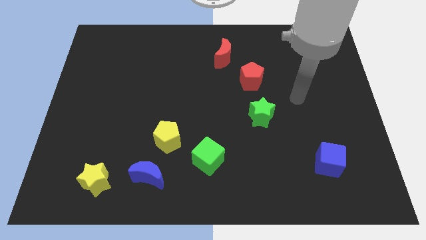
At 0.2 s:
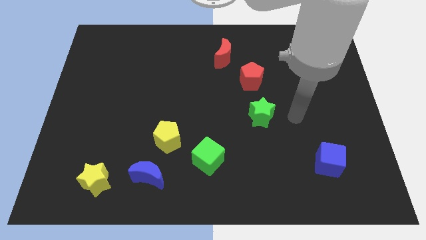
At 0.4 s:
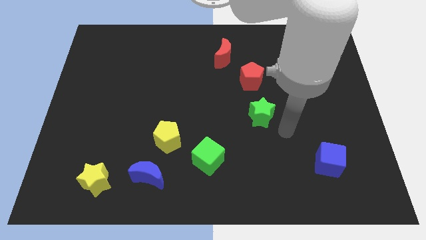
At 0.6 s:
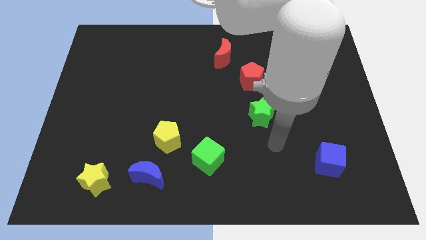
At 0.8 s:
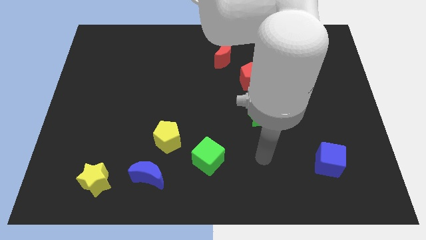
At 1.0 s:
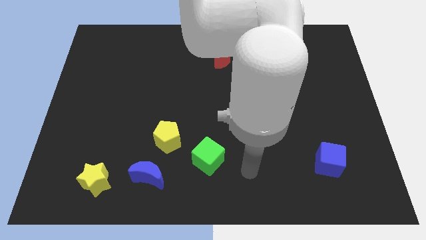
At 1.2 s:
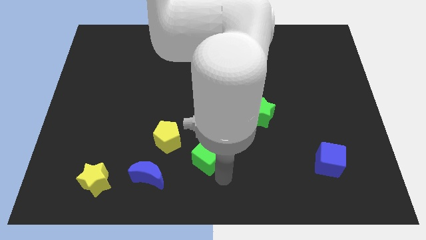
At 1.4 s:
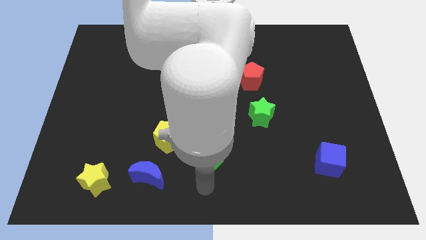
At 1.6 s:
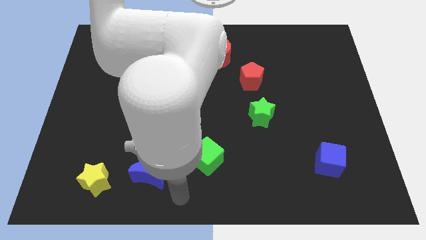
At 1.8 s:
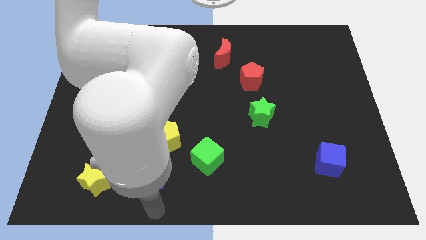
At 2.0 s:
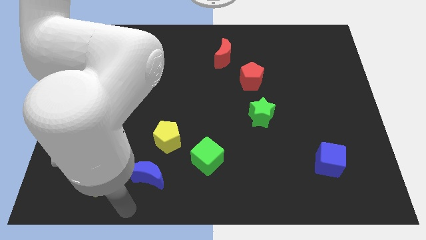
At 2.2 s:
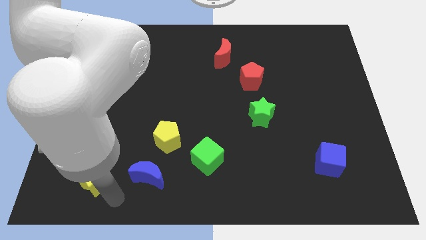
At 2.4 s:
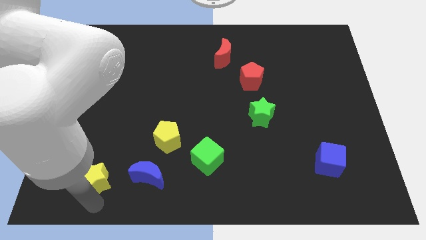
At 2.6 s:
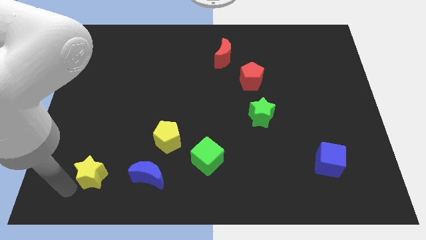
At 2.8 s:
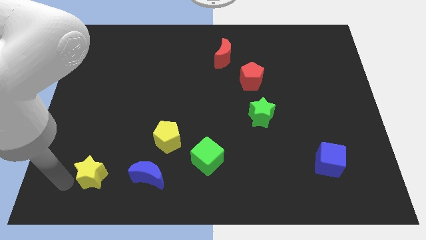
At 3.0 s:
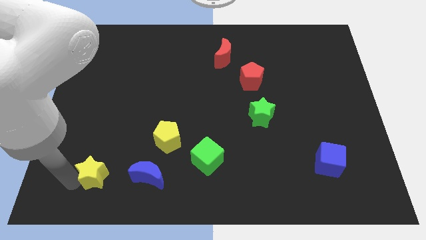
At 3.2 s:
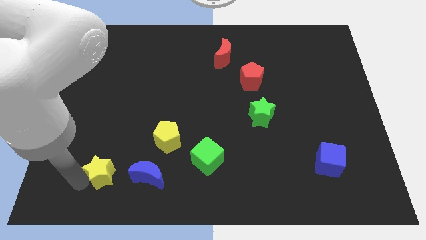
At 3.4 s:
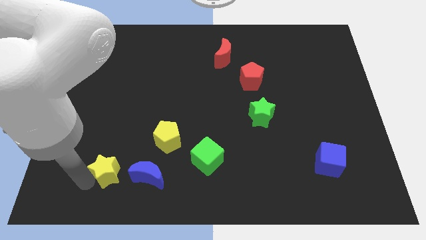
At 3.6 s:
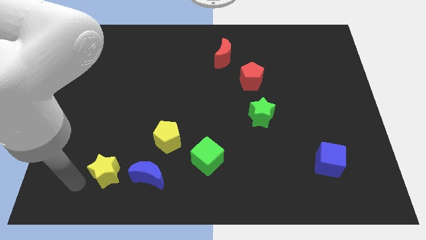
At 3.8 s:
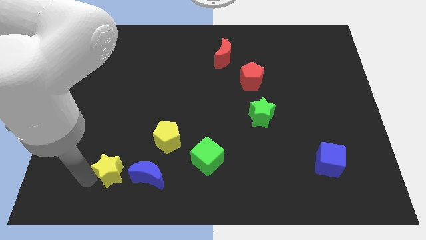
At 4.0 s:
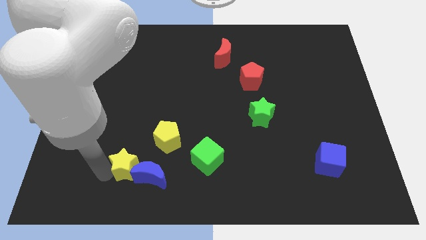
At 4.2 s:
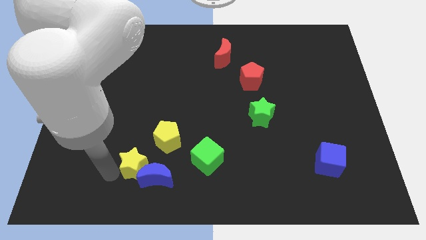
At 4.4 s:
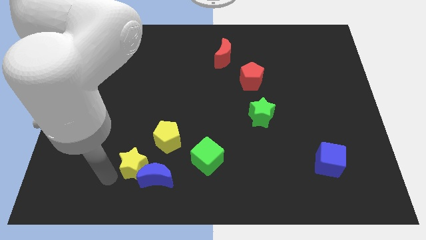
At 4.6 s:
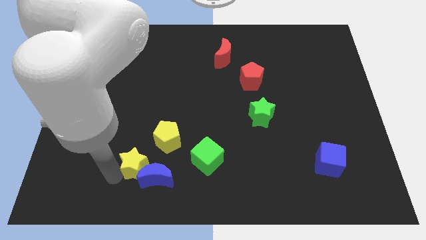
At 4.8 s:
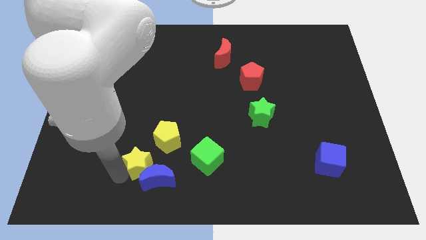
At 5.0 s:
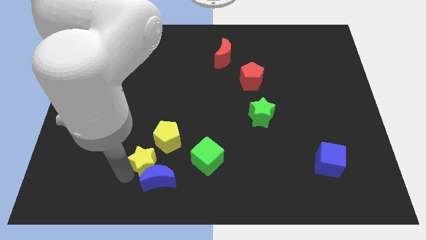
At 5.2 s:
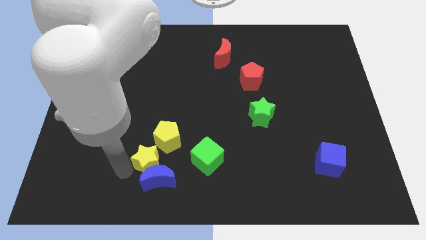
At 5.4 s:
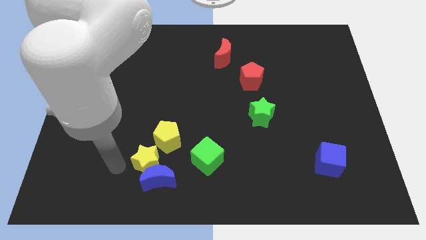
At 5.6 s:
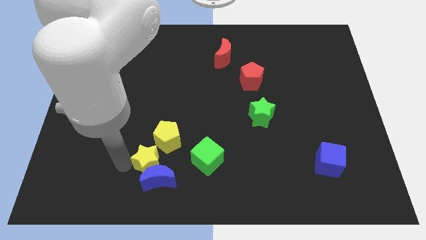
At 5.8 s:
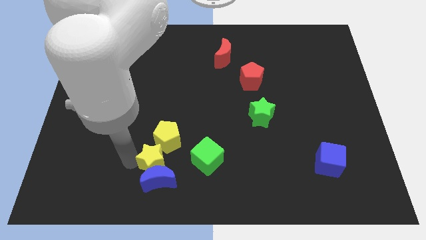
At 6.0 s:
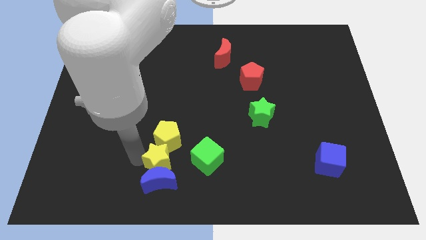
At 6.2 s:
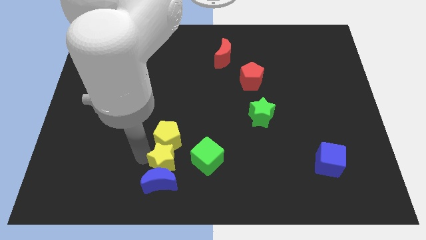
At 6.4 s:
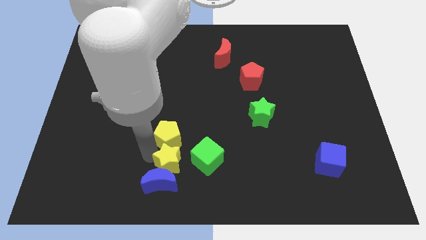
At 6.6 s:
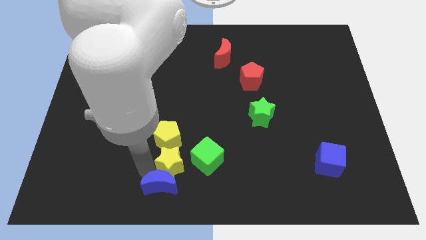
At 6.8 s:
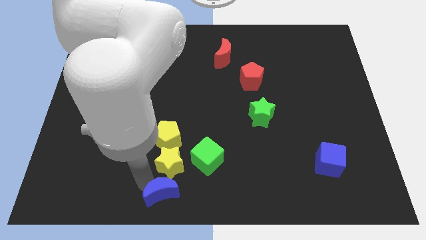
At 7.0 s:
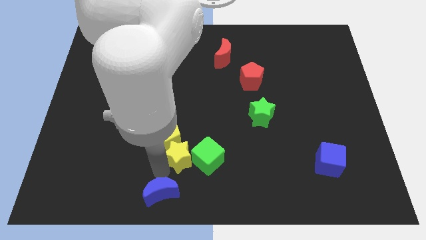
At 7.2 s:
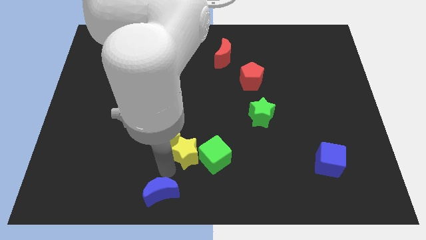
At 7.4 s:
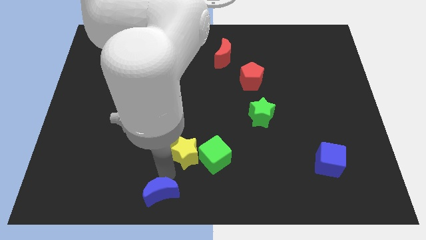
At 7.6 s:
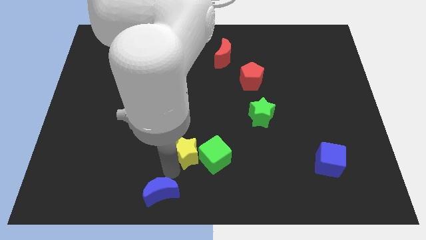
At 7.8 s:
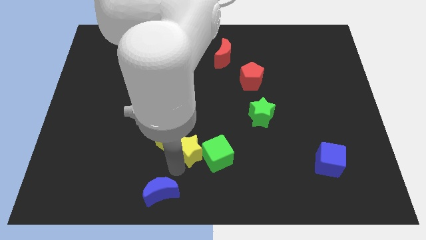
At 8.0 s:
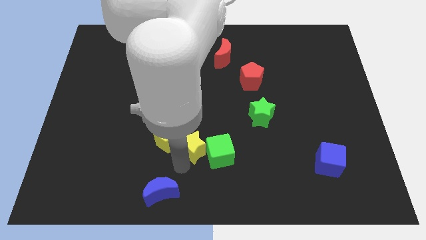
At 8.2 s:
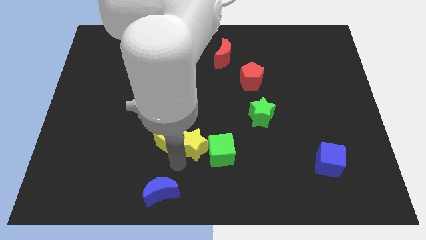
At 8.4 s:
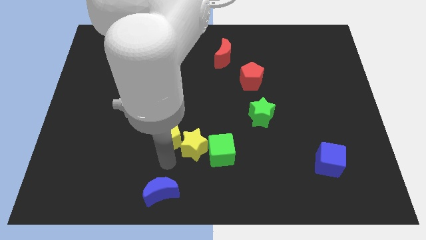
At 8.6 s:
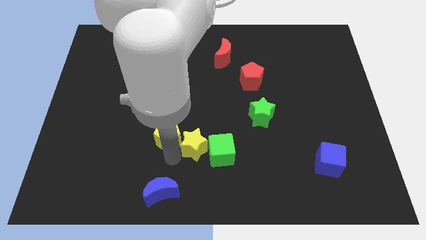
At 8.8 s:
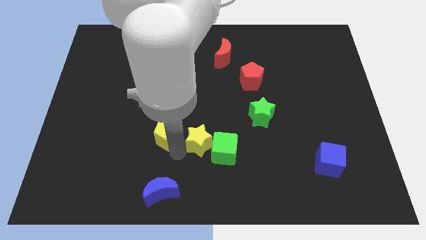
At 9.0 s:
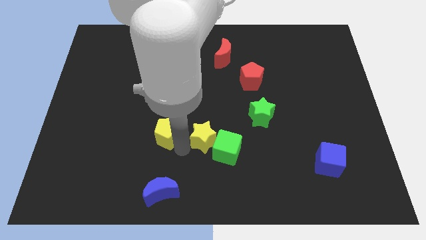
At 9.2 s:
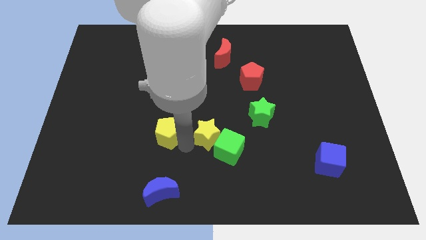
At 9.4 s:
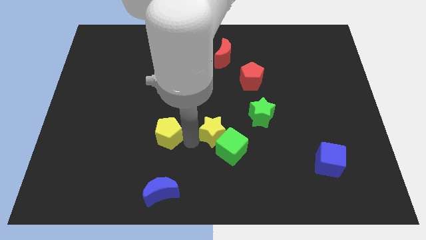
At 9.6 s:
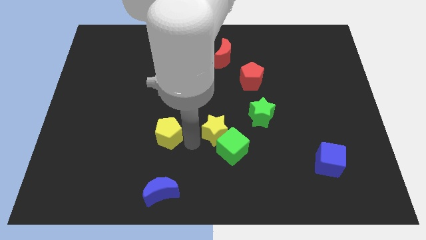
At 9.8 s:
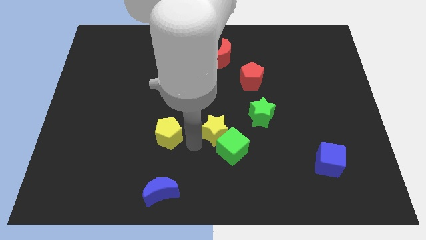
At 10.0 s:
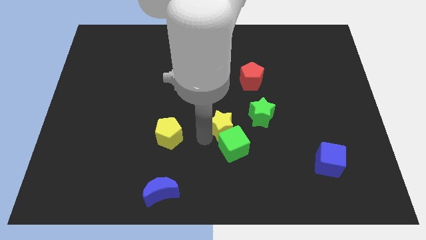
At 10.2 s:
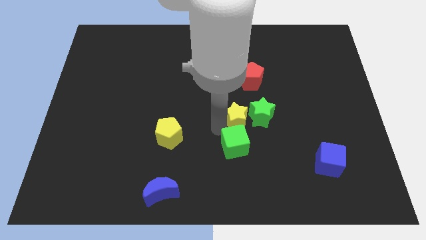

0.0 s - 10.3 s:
put the yellow star towards the green star

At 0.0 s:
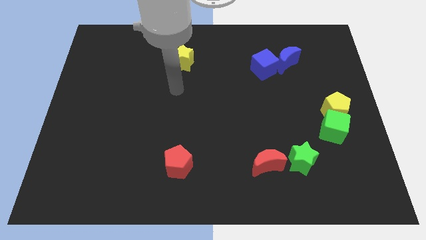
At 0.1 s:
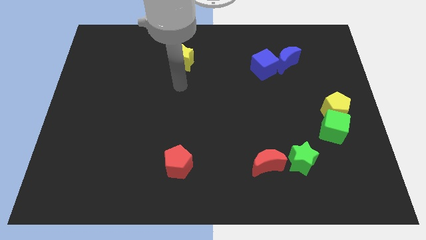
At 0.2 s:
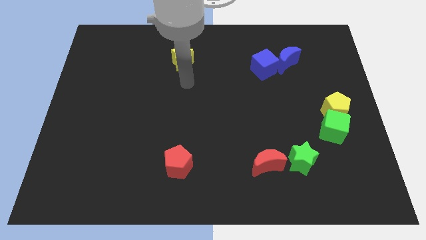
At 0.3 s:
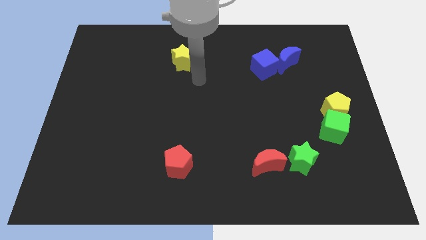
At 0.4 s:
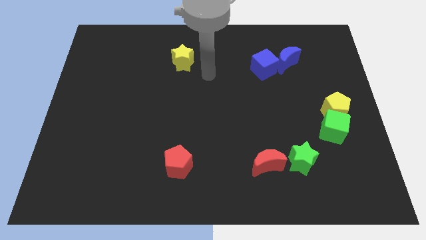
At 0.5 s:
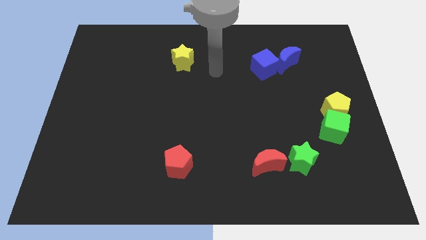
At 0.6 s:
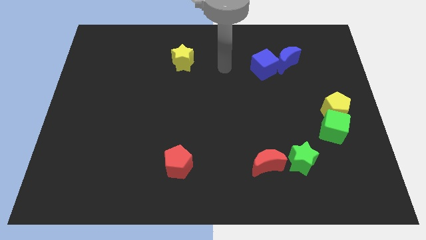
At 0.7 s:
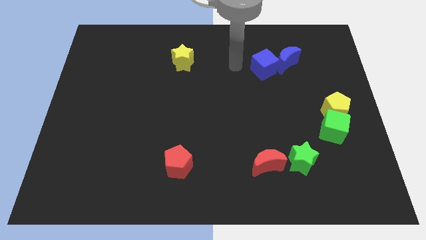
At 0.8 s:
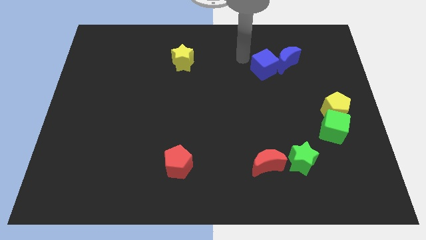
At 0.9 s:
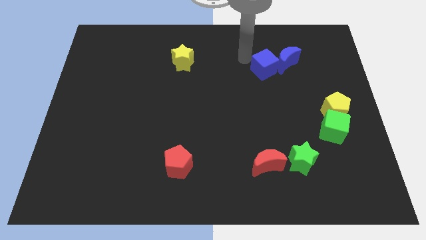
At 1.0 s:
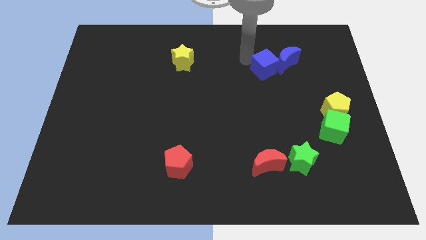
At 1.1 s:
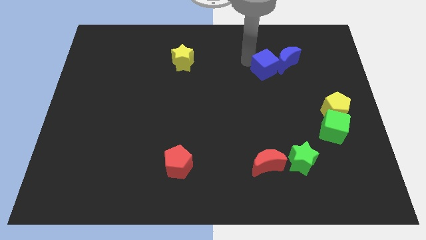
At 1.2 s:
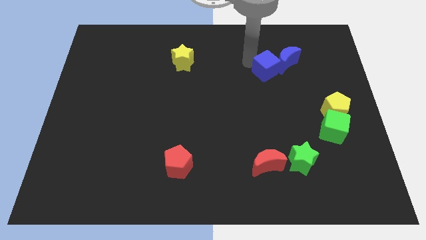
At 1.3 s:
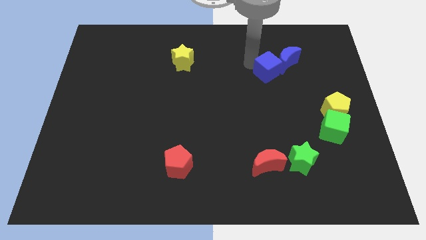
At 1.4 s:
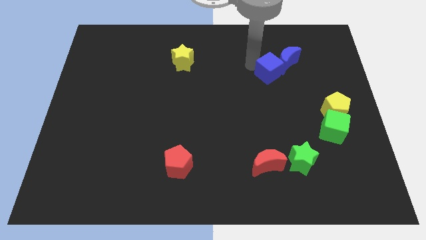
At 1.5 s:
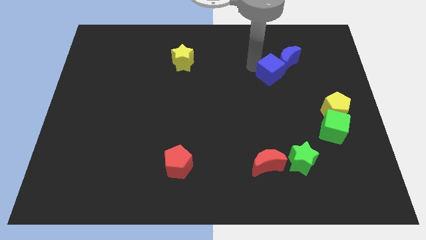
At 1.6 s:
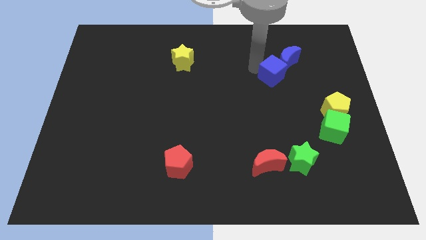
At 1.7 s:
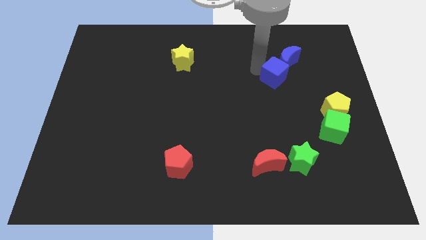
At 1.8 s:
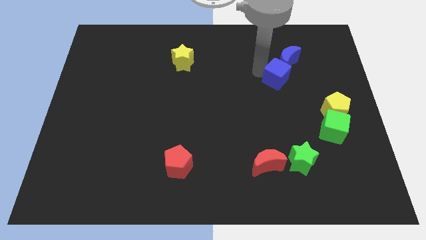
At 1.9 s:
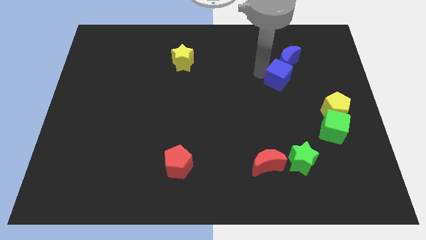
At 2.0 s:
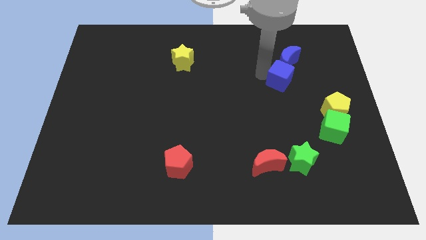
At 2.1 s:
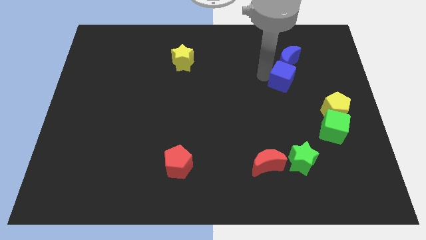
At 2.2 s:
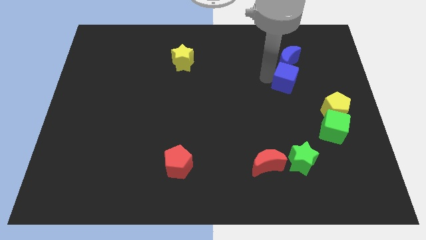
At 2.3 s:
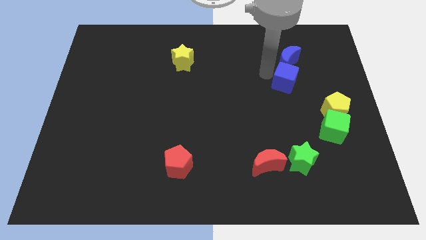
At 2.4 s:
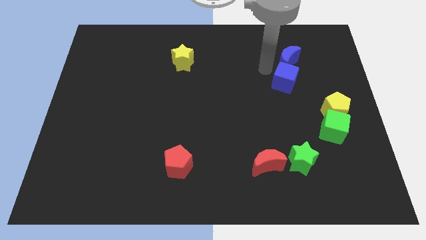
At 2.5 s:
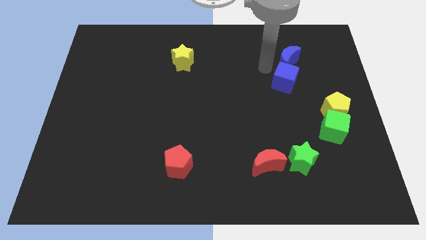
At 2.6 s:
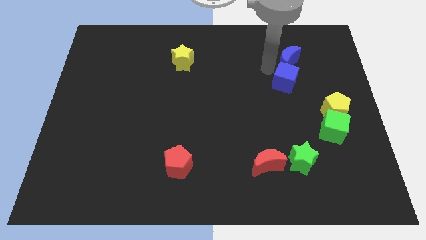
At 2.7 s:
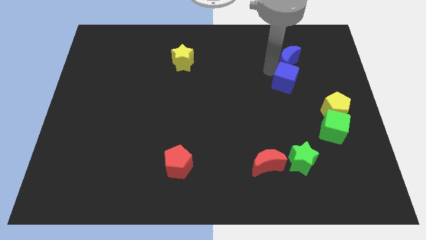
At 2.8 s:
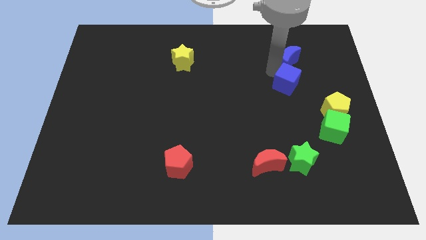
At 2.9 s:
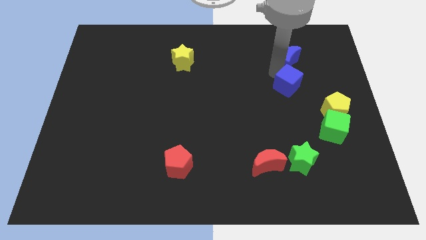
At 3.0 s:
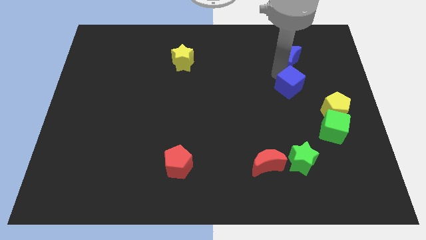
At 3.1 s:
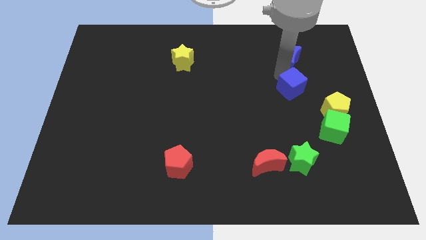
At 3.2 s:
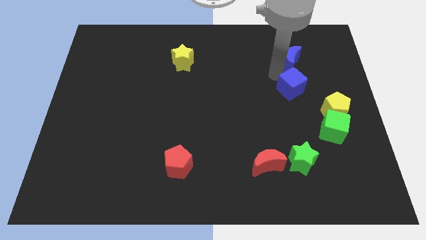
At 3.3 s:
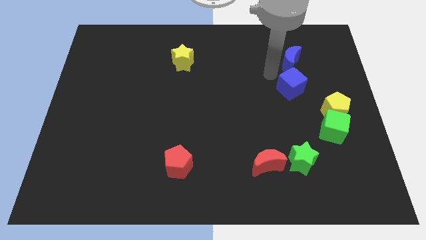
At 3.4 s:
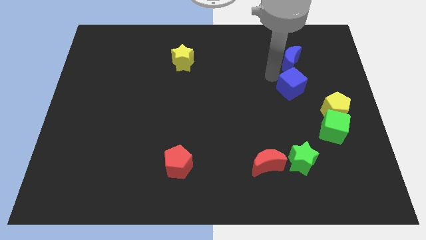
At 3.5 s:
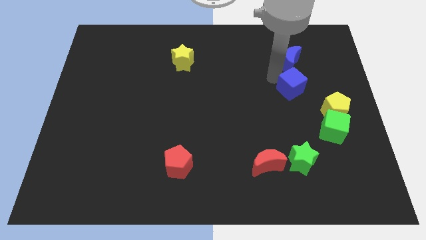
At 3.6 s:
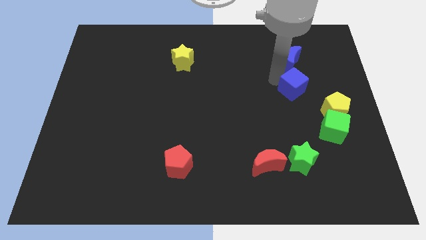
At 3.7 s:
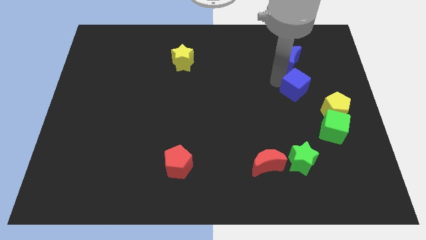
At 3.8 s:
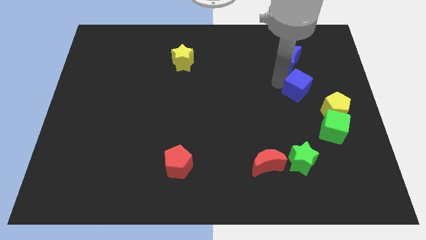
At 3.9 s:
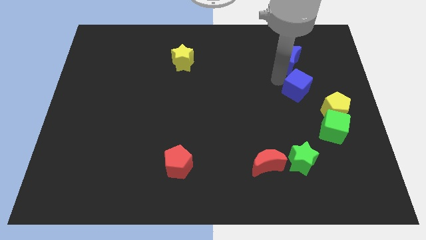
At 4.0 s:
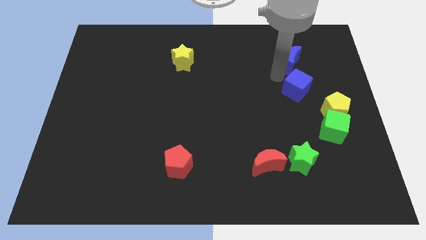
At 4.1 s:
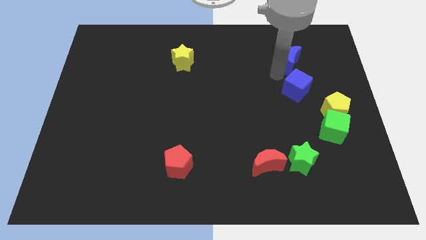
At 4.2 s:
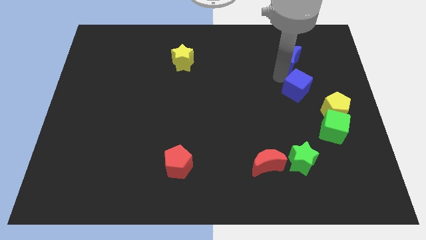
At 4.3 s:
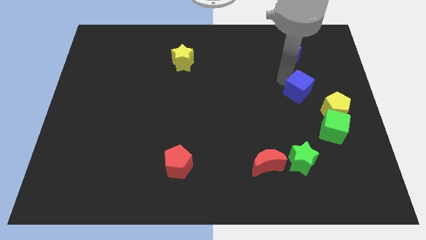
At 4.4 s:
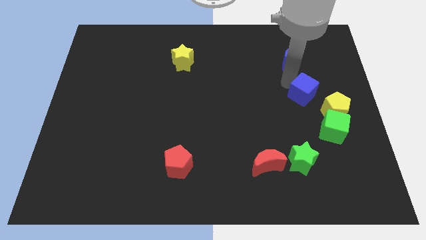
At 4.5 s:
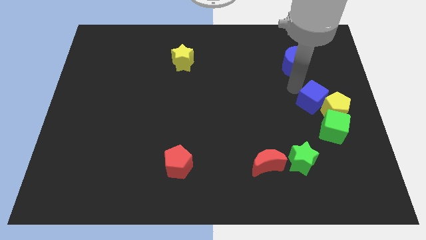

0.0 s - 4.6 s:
put the blue cube to the yellow pentagon
